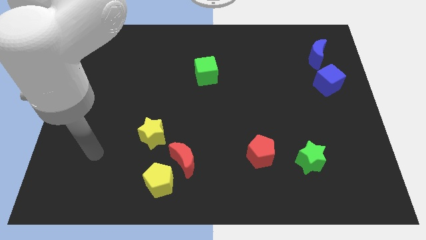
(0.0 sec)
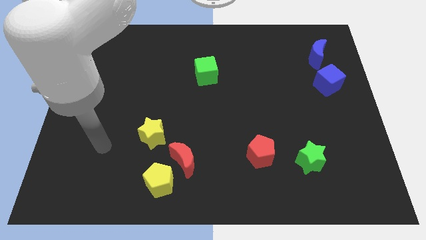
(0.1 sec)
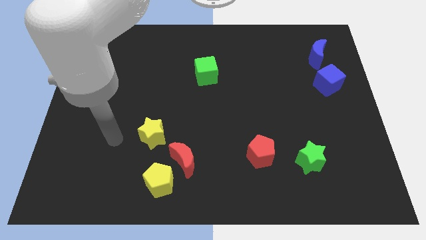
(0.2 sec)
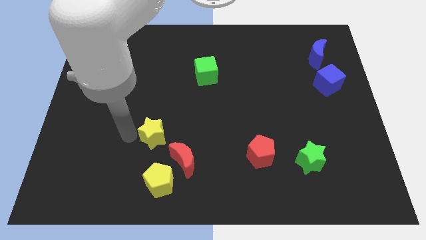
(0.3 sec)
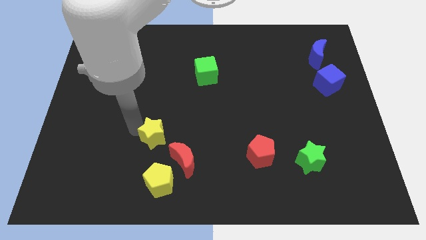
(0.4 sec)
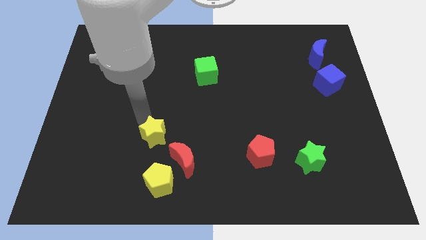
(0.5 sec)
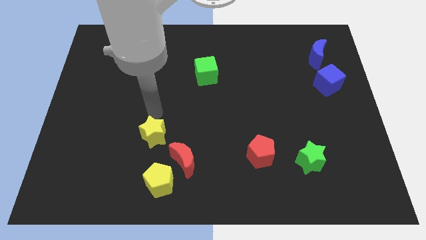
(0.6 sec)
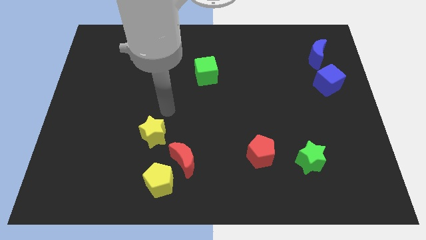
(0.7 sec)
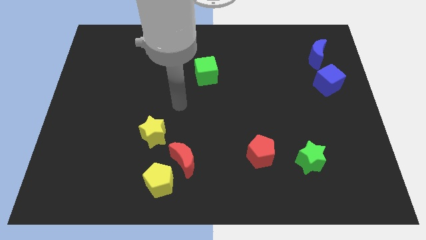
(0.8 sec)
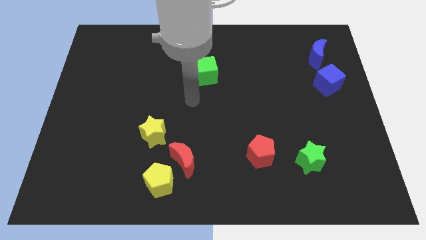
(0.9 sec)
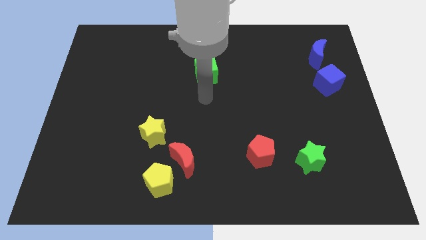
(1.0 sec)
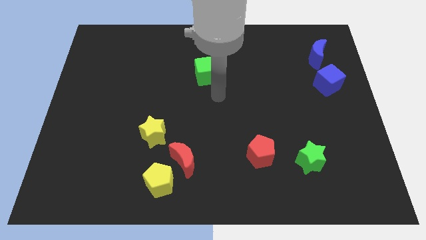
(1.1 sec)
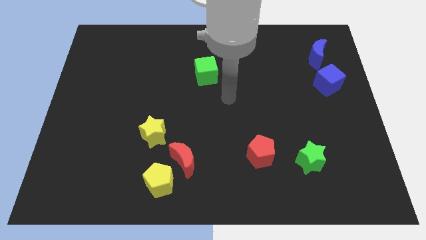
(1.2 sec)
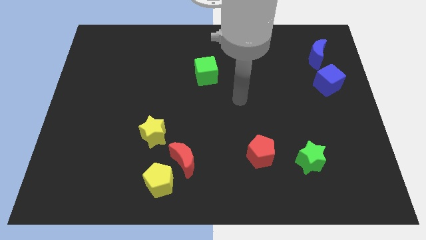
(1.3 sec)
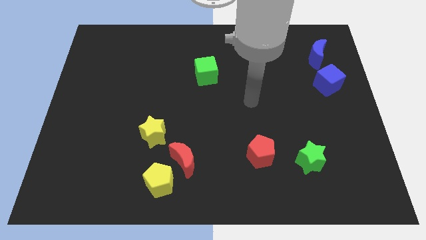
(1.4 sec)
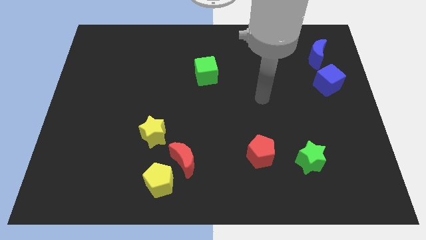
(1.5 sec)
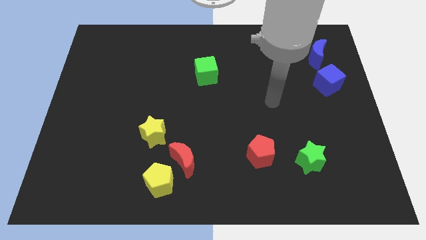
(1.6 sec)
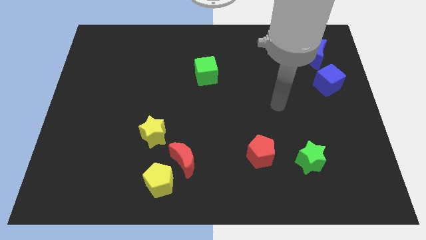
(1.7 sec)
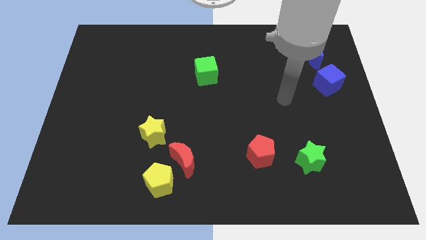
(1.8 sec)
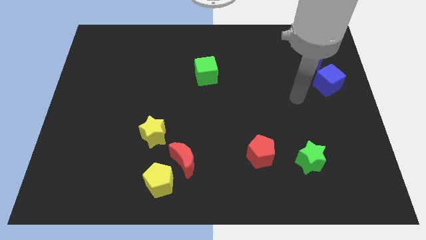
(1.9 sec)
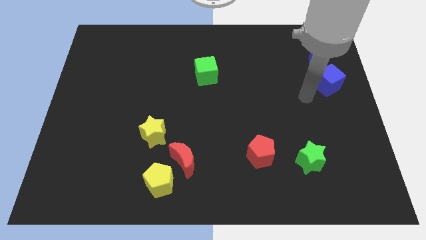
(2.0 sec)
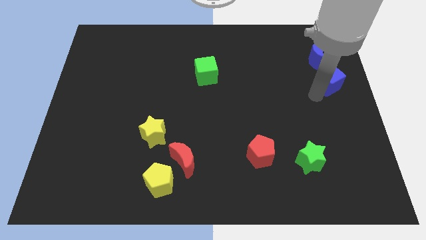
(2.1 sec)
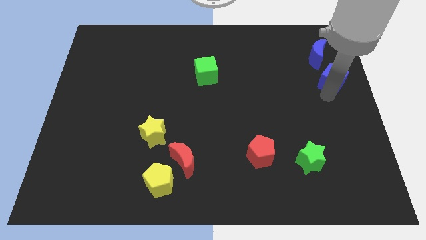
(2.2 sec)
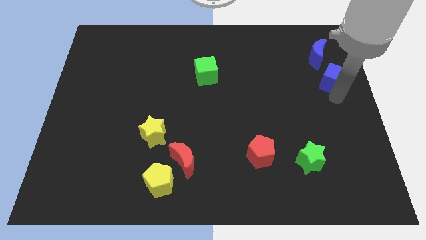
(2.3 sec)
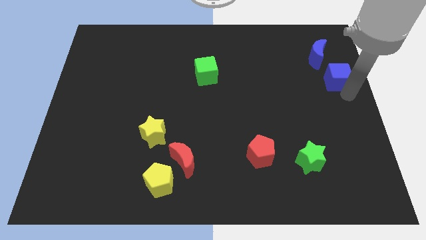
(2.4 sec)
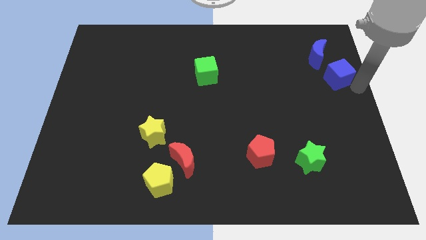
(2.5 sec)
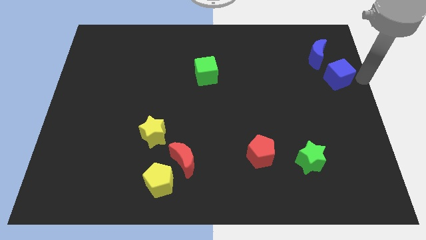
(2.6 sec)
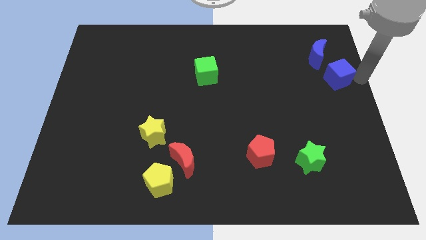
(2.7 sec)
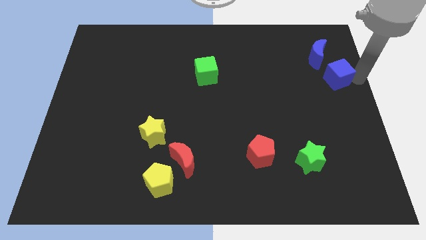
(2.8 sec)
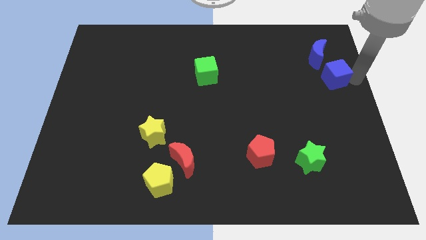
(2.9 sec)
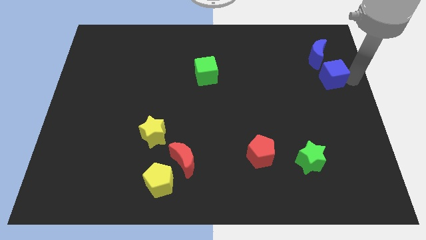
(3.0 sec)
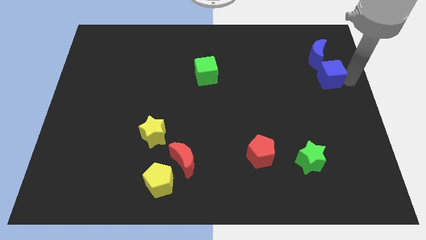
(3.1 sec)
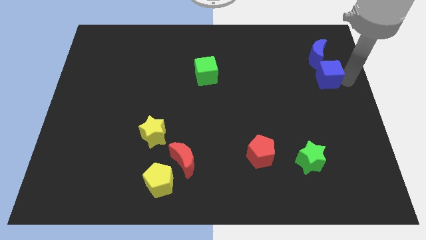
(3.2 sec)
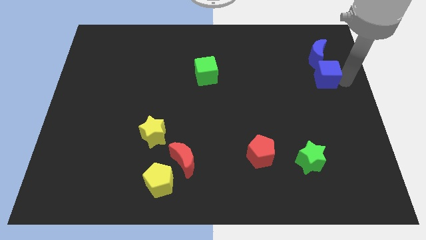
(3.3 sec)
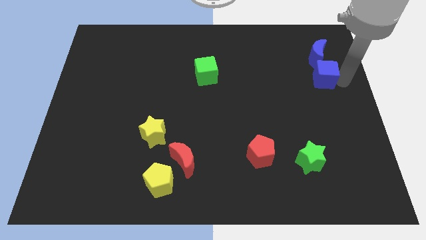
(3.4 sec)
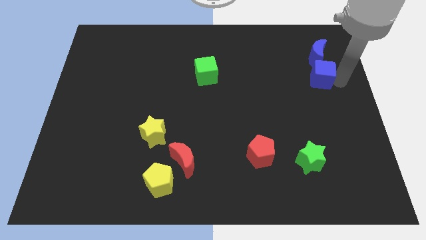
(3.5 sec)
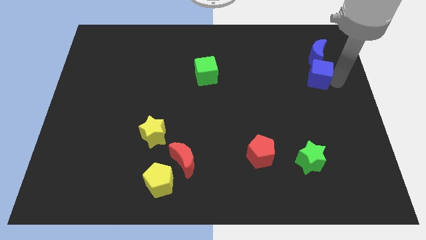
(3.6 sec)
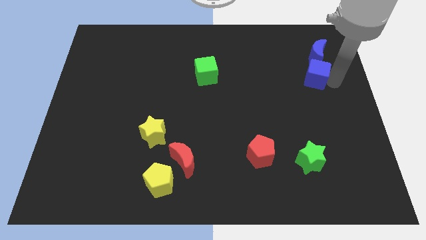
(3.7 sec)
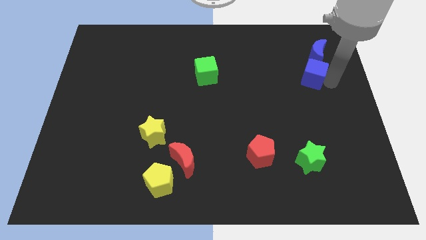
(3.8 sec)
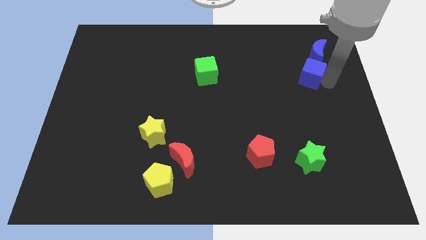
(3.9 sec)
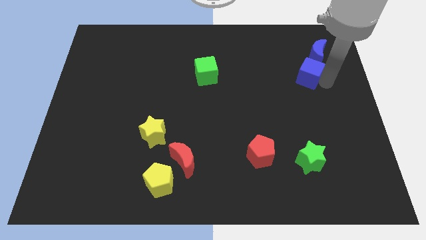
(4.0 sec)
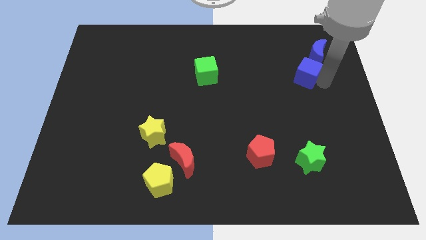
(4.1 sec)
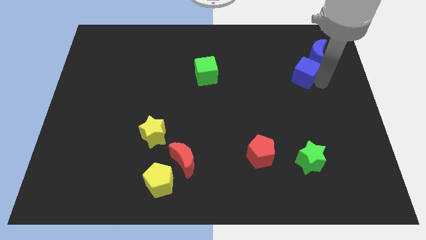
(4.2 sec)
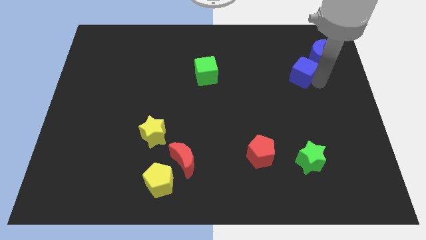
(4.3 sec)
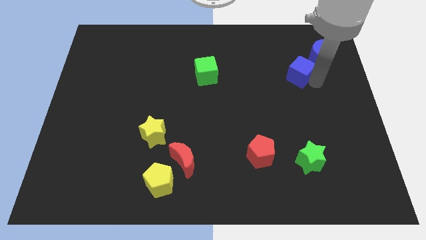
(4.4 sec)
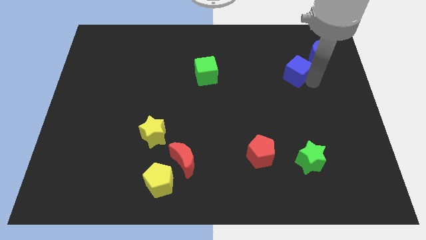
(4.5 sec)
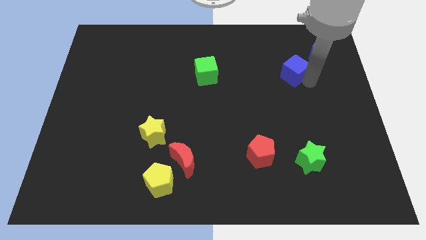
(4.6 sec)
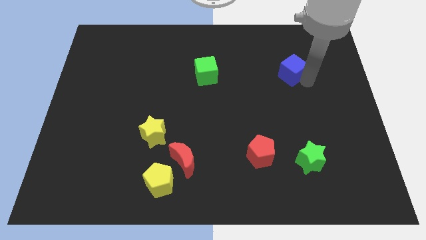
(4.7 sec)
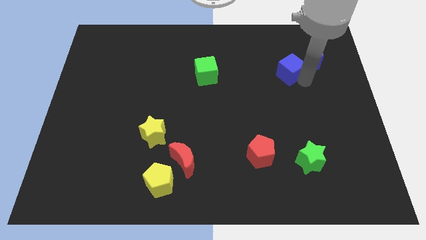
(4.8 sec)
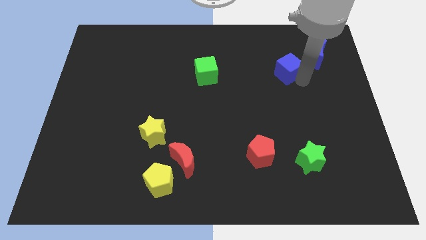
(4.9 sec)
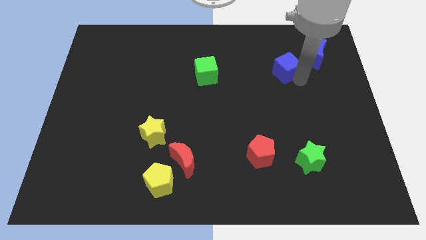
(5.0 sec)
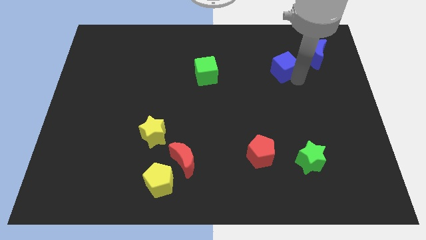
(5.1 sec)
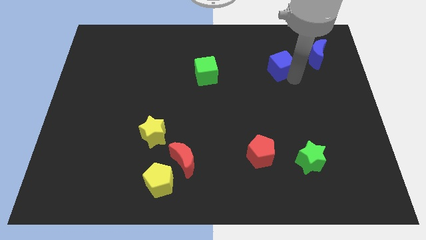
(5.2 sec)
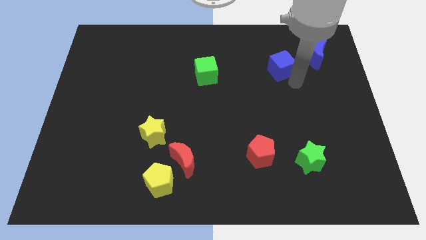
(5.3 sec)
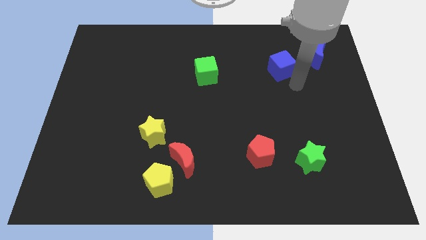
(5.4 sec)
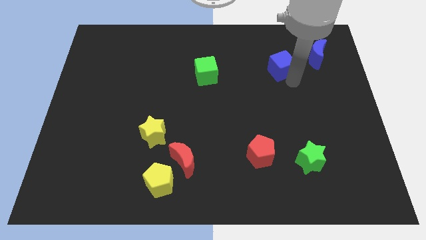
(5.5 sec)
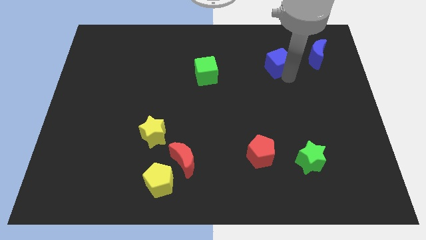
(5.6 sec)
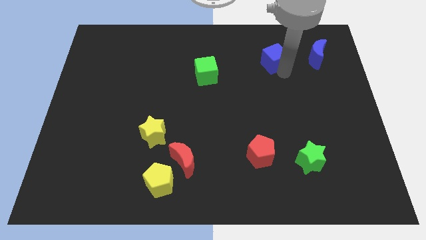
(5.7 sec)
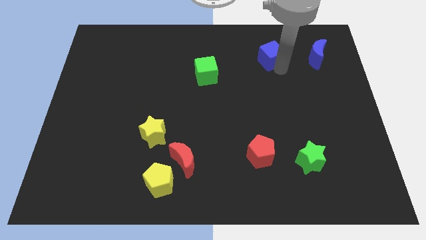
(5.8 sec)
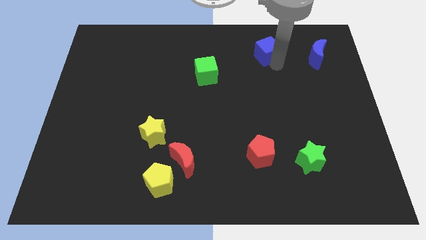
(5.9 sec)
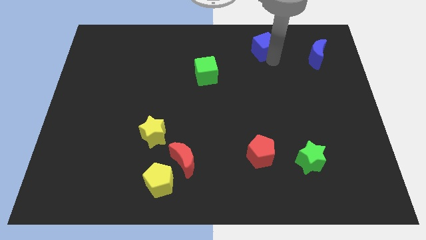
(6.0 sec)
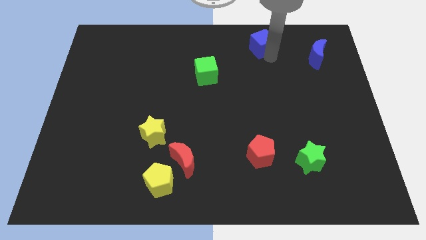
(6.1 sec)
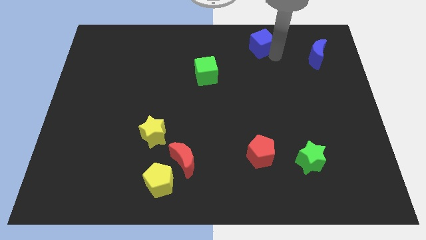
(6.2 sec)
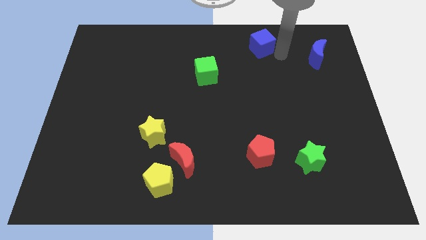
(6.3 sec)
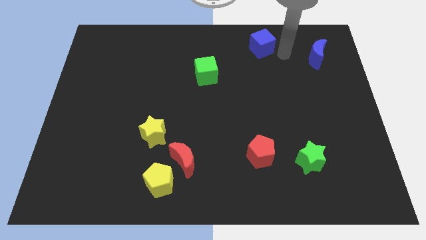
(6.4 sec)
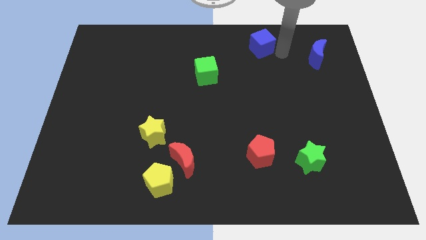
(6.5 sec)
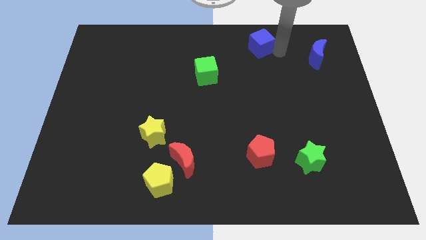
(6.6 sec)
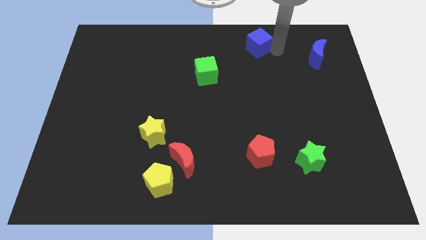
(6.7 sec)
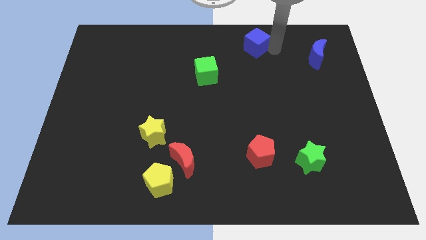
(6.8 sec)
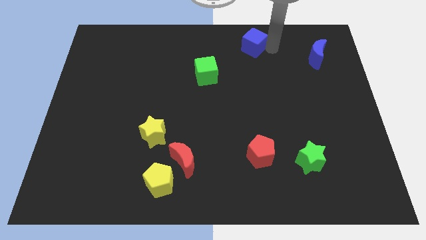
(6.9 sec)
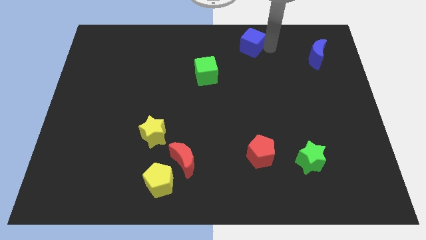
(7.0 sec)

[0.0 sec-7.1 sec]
slide the blue cube to the top side
